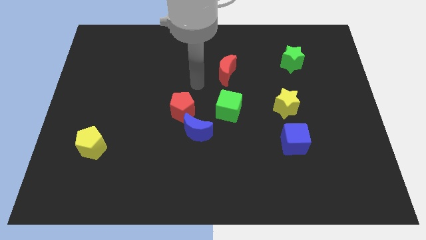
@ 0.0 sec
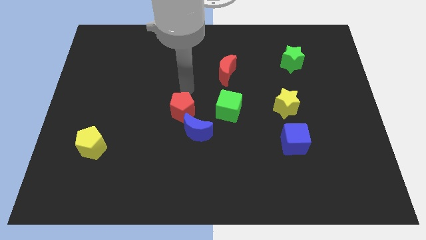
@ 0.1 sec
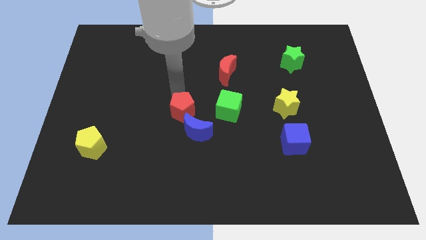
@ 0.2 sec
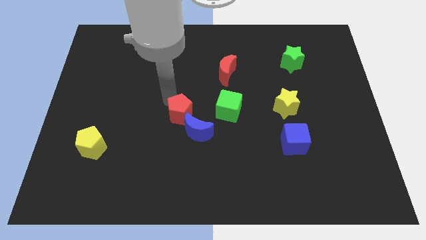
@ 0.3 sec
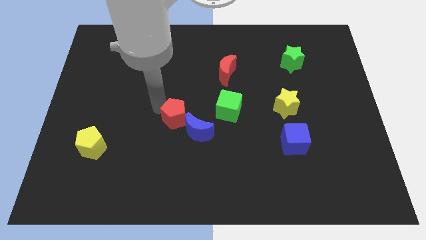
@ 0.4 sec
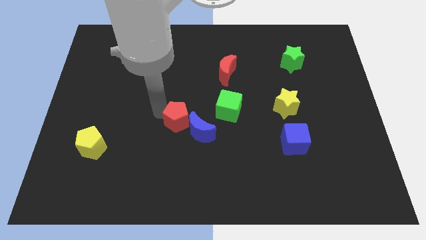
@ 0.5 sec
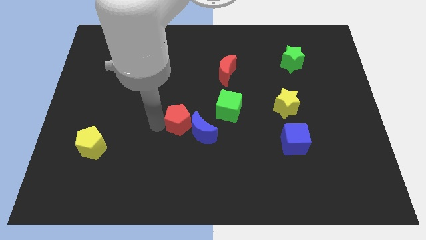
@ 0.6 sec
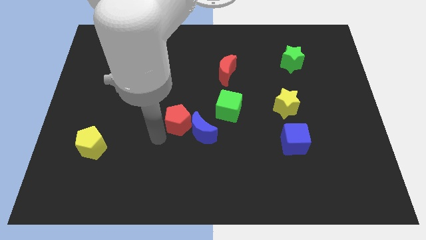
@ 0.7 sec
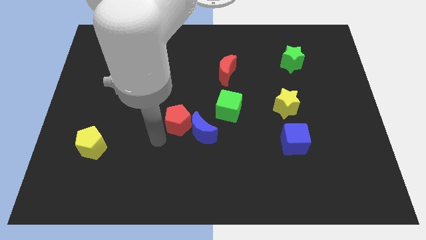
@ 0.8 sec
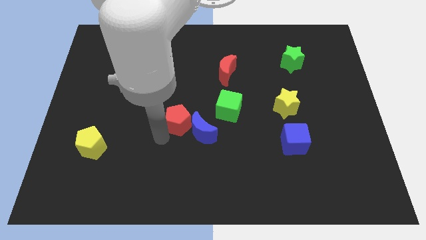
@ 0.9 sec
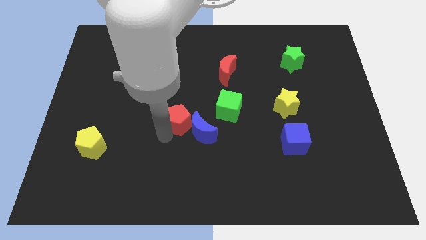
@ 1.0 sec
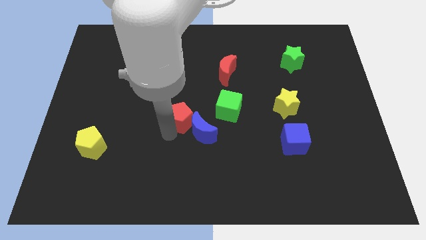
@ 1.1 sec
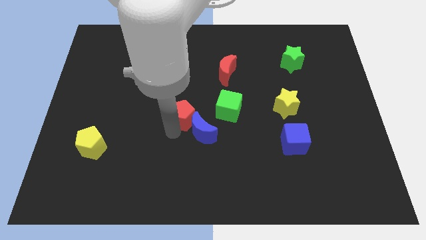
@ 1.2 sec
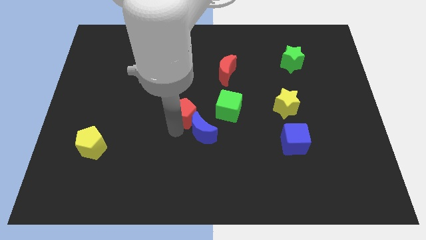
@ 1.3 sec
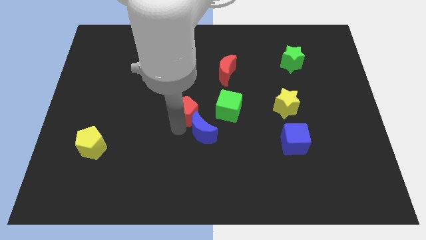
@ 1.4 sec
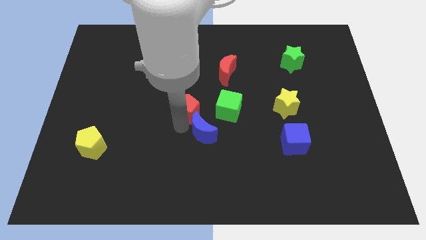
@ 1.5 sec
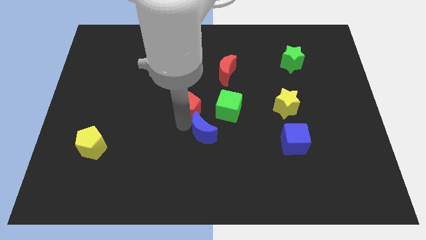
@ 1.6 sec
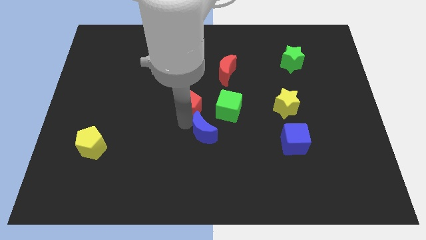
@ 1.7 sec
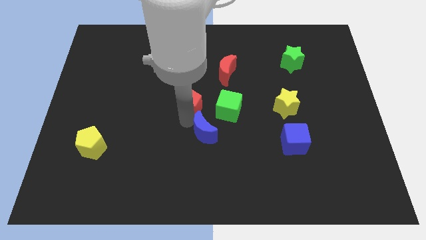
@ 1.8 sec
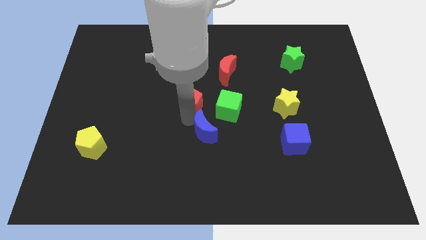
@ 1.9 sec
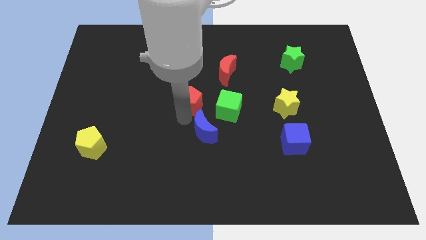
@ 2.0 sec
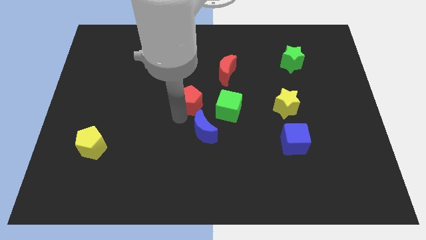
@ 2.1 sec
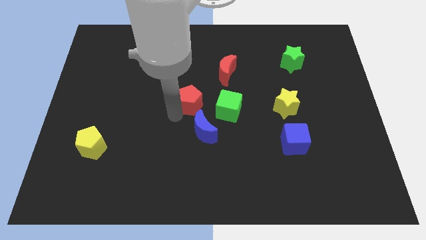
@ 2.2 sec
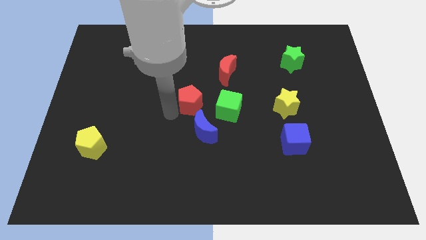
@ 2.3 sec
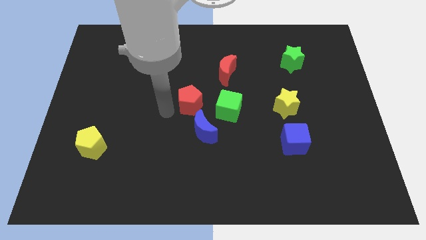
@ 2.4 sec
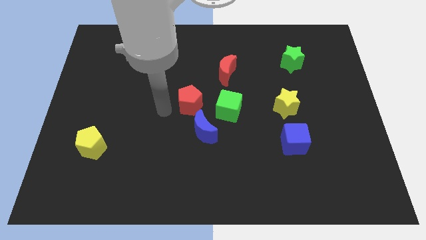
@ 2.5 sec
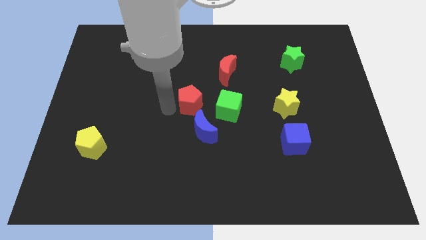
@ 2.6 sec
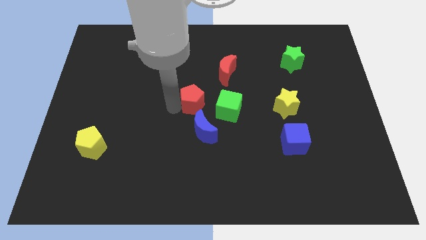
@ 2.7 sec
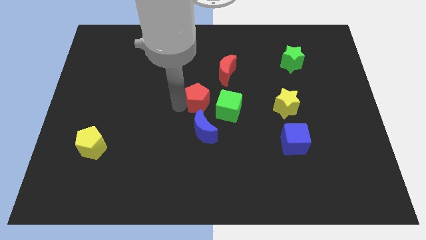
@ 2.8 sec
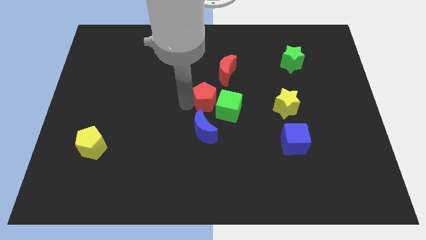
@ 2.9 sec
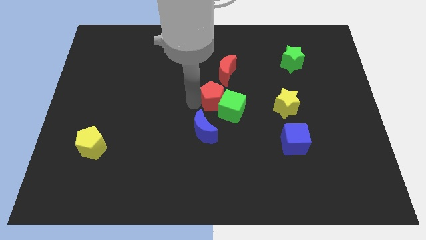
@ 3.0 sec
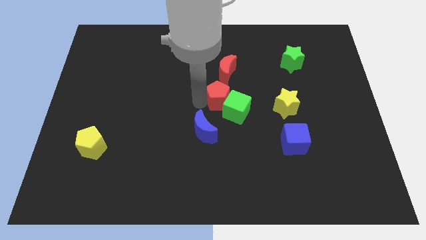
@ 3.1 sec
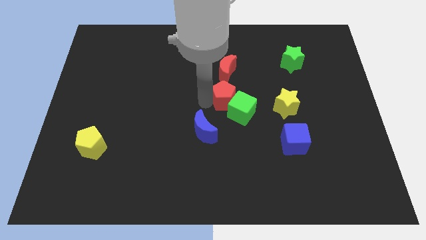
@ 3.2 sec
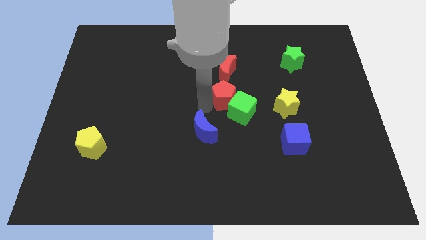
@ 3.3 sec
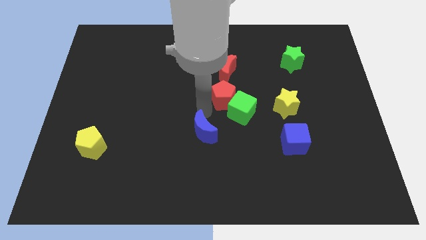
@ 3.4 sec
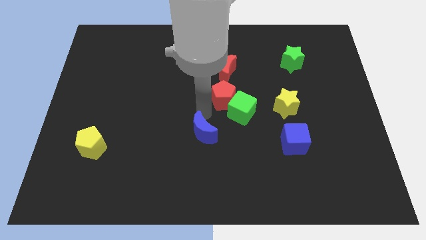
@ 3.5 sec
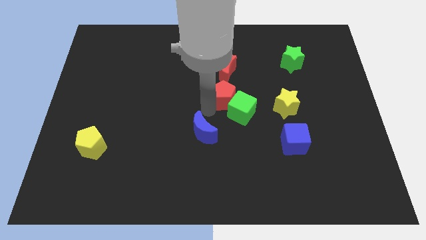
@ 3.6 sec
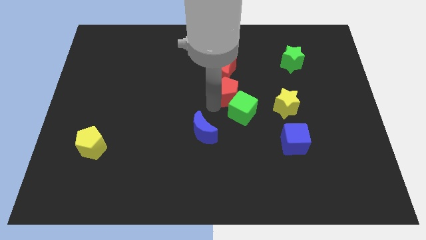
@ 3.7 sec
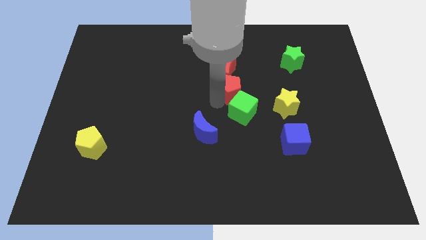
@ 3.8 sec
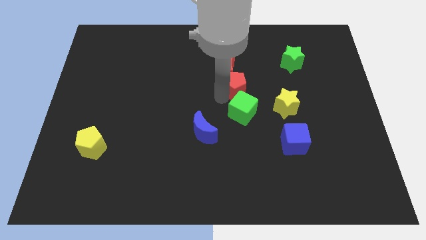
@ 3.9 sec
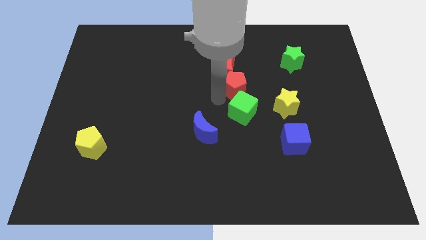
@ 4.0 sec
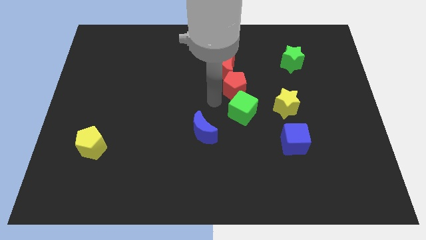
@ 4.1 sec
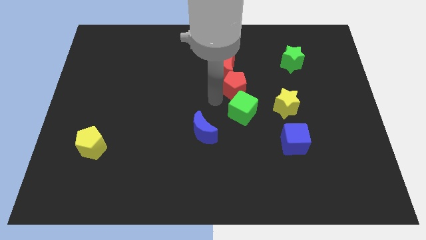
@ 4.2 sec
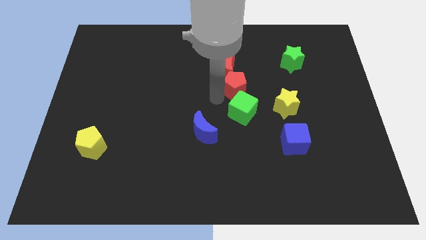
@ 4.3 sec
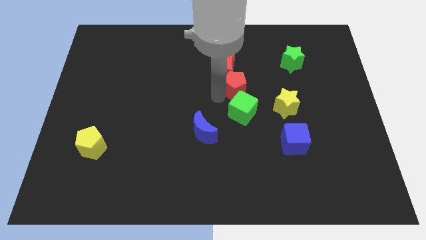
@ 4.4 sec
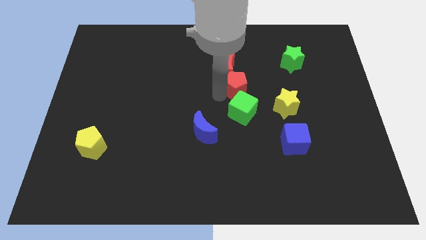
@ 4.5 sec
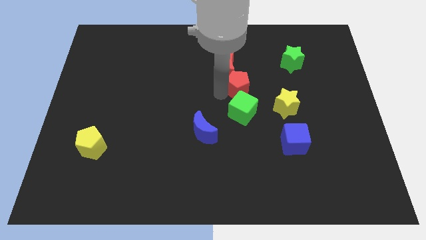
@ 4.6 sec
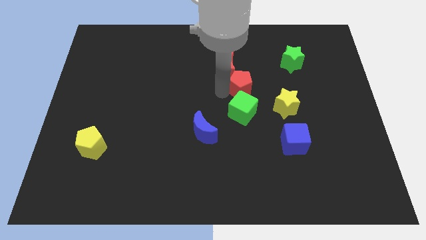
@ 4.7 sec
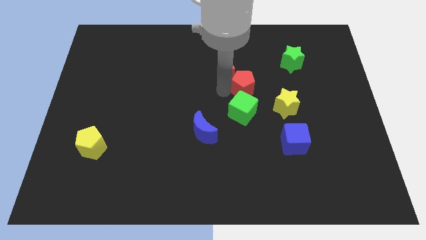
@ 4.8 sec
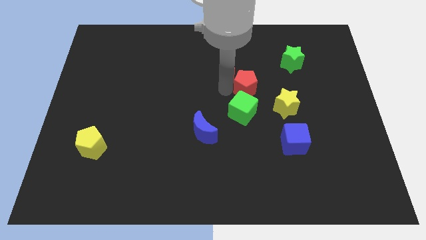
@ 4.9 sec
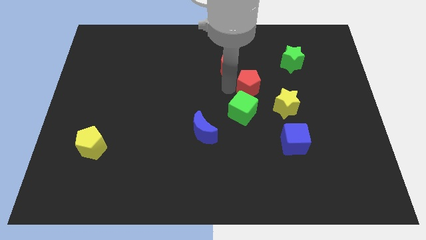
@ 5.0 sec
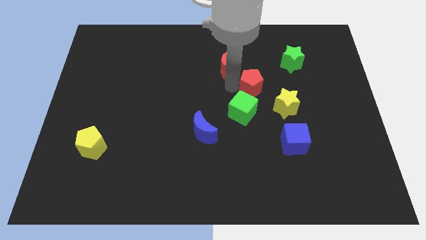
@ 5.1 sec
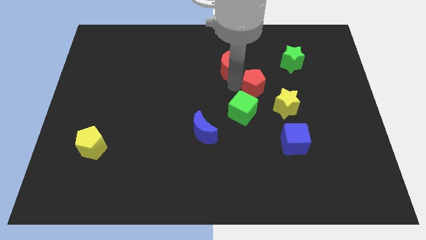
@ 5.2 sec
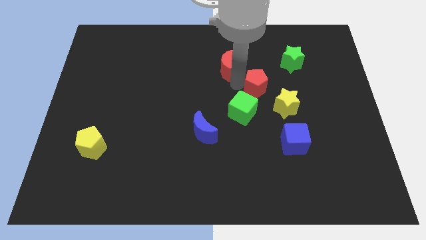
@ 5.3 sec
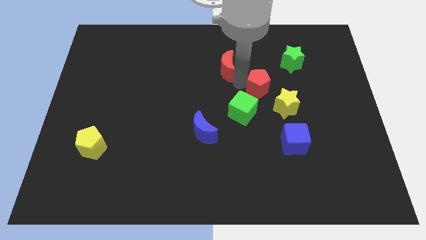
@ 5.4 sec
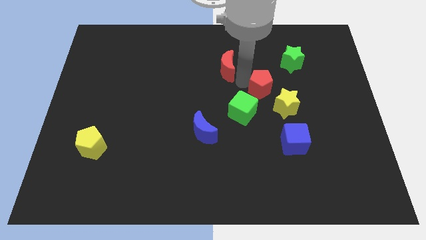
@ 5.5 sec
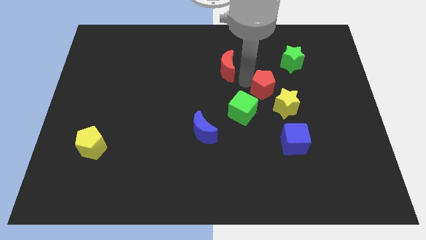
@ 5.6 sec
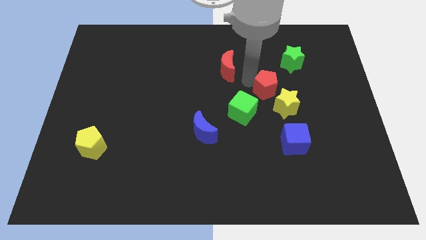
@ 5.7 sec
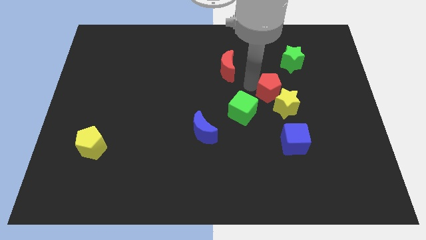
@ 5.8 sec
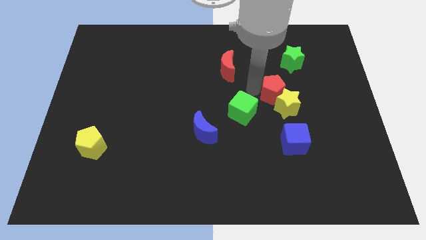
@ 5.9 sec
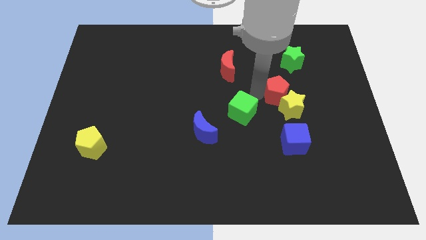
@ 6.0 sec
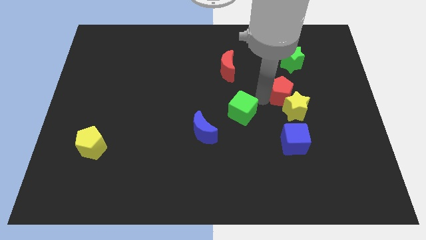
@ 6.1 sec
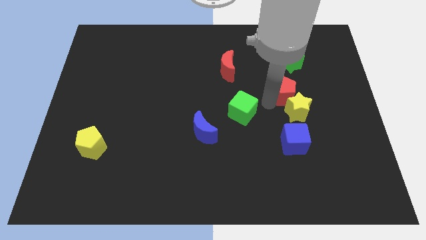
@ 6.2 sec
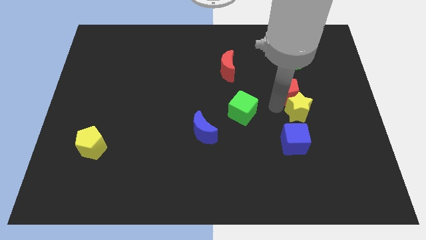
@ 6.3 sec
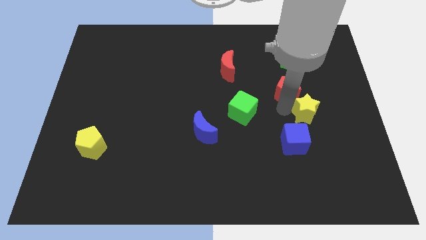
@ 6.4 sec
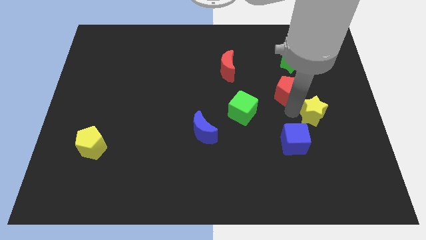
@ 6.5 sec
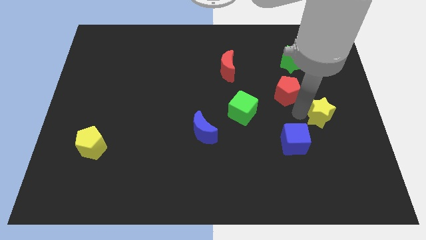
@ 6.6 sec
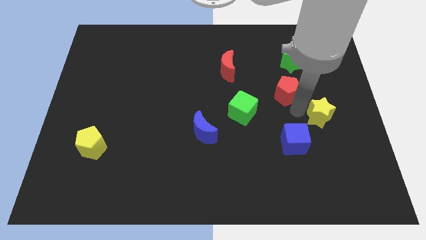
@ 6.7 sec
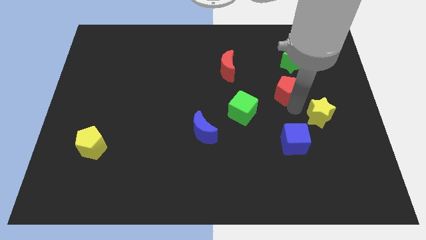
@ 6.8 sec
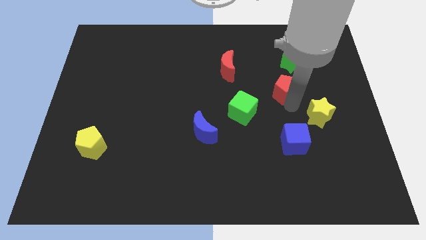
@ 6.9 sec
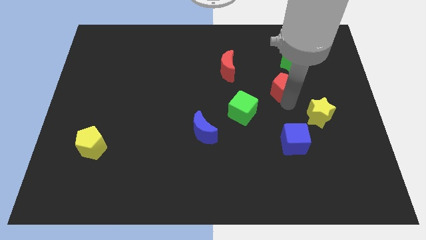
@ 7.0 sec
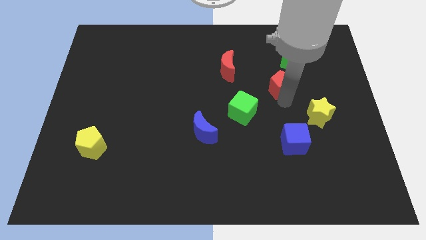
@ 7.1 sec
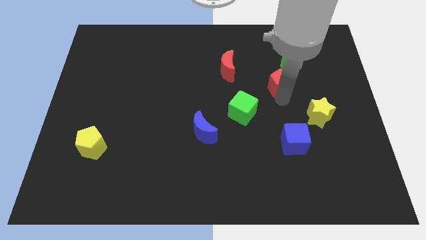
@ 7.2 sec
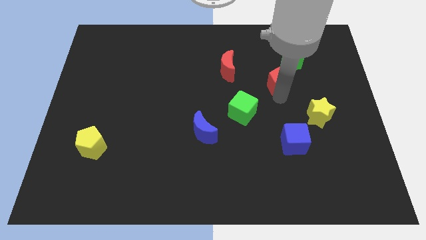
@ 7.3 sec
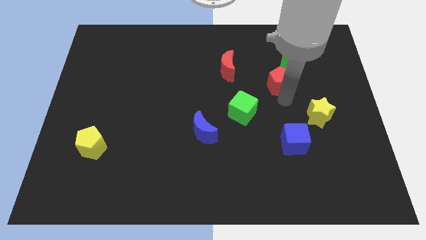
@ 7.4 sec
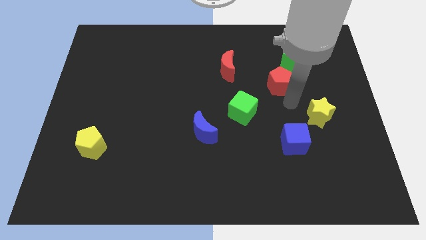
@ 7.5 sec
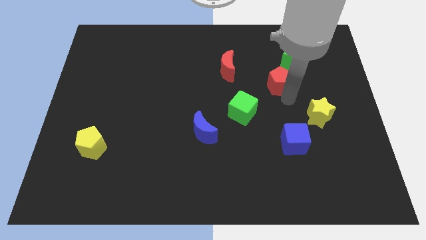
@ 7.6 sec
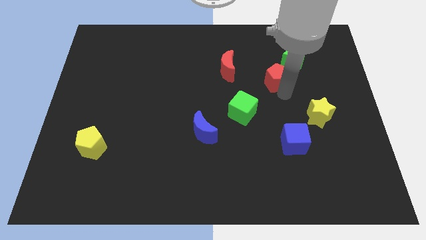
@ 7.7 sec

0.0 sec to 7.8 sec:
slide the red pentagon just right of the red moon
